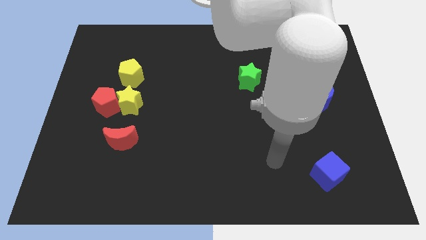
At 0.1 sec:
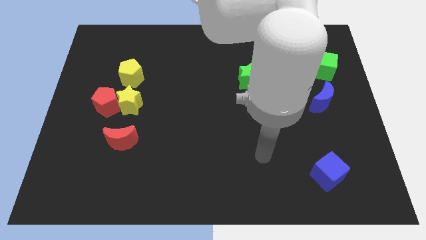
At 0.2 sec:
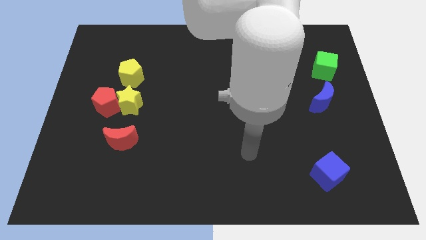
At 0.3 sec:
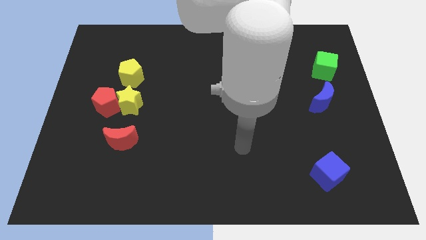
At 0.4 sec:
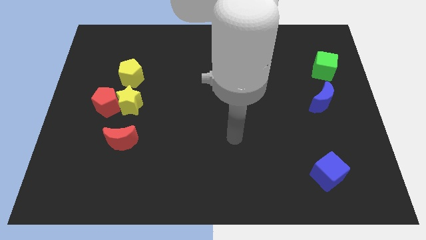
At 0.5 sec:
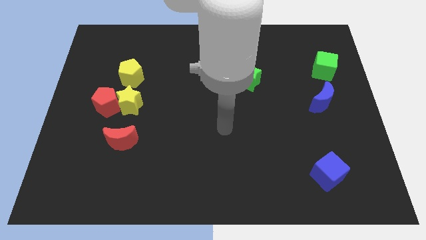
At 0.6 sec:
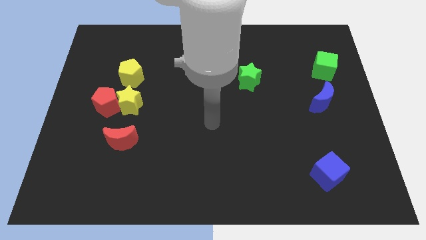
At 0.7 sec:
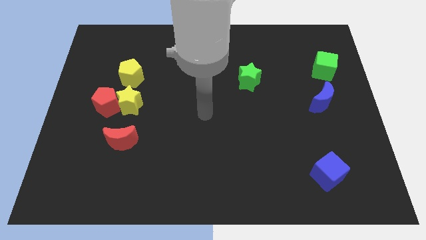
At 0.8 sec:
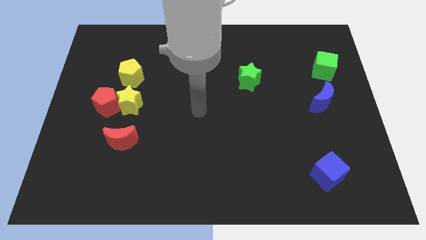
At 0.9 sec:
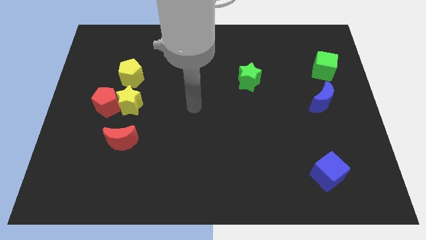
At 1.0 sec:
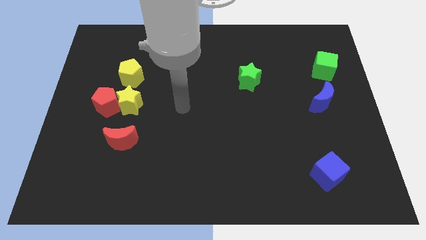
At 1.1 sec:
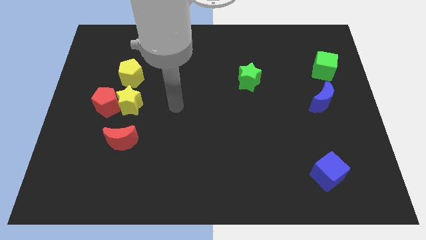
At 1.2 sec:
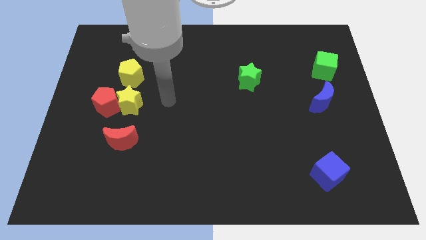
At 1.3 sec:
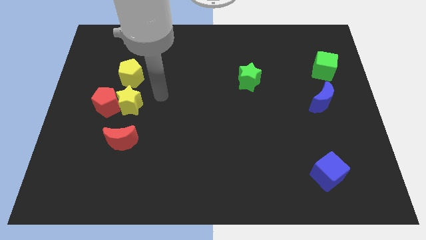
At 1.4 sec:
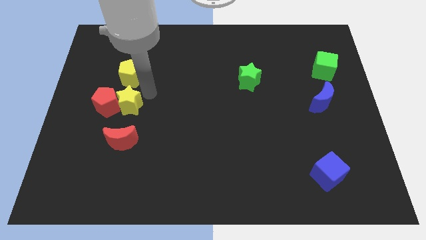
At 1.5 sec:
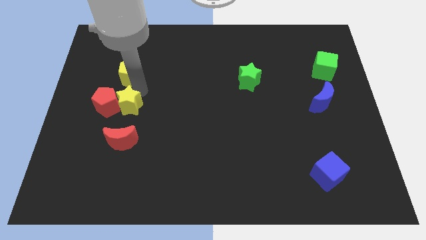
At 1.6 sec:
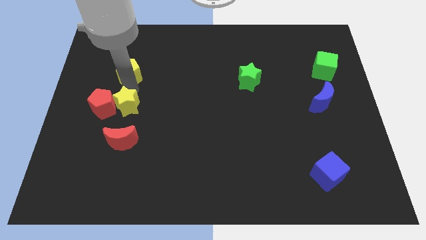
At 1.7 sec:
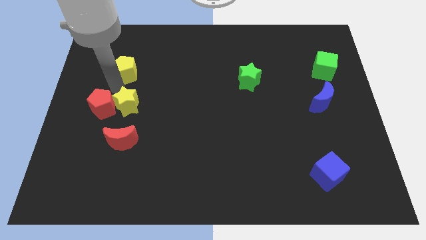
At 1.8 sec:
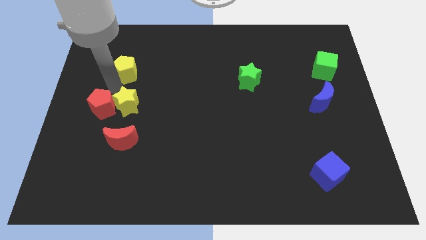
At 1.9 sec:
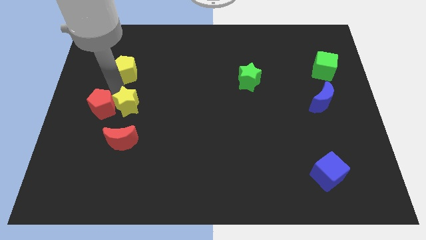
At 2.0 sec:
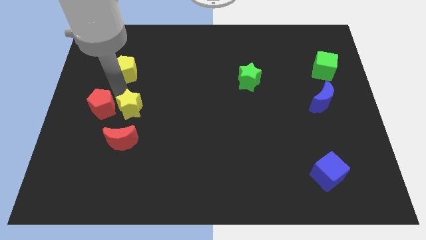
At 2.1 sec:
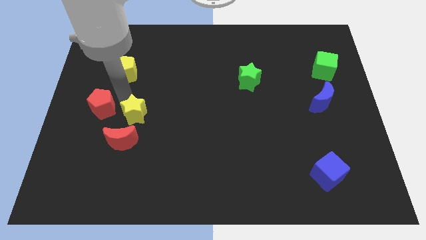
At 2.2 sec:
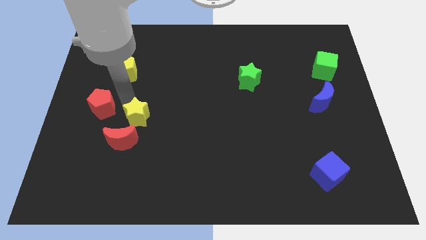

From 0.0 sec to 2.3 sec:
separate the yellow star from the red pentagon and yellow pentagon

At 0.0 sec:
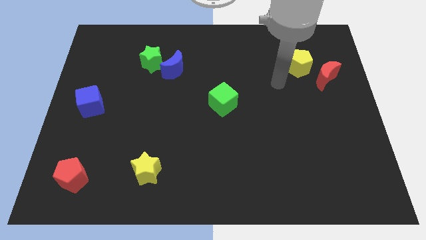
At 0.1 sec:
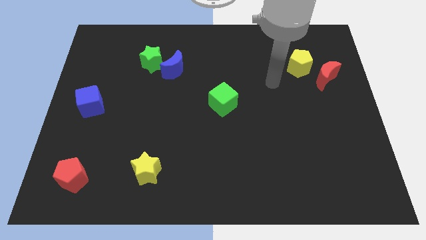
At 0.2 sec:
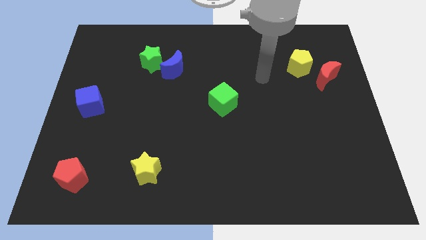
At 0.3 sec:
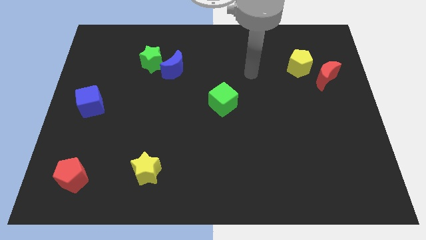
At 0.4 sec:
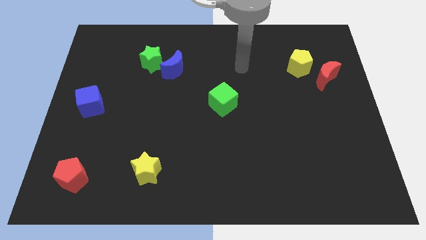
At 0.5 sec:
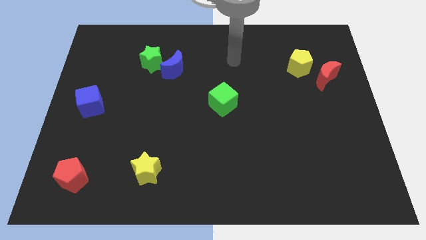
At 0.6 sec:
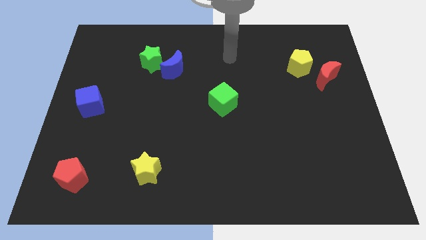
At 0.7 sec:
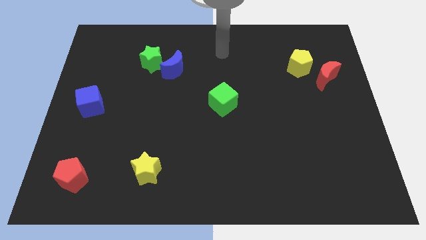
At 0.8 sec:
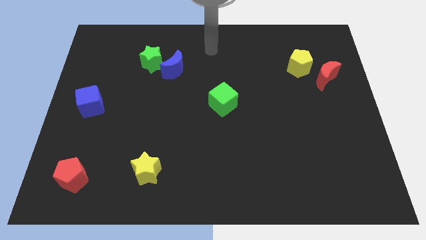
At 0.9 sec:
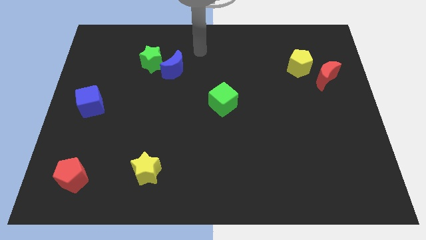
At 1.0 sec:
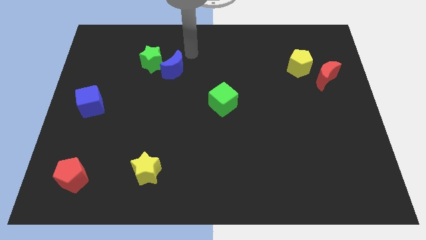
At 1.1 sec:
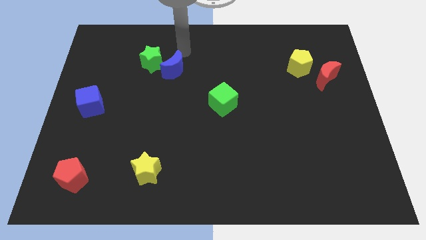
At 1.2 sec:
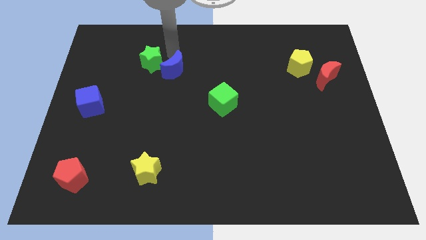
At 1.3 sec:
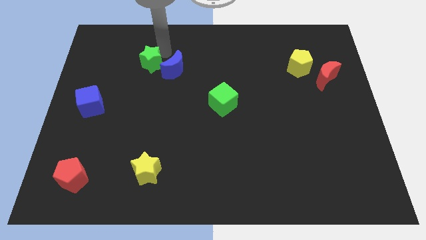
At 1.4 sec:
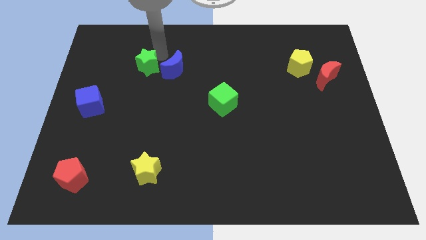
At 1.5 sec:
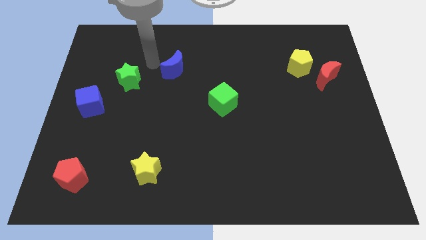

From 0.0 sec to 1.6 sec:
pull the blue moon apart from the green star

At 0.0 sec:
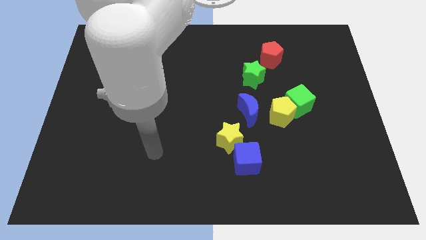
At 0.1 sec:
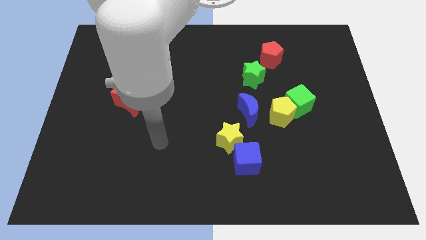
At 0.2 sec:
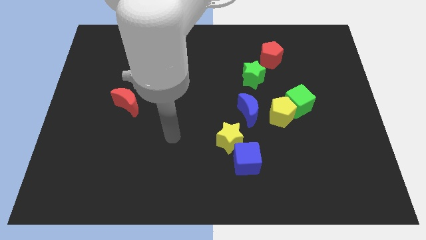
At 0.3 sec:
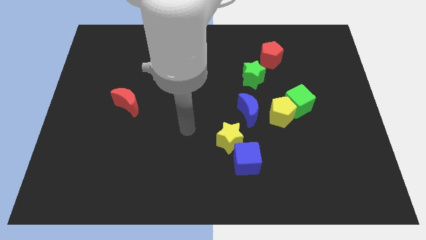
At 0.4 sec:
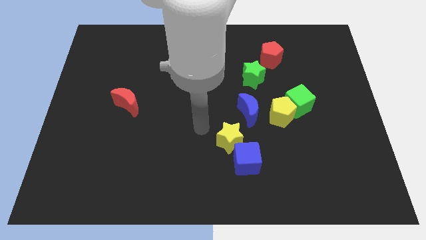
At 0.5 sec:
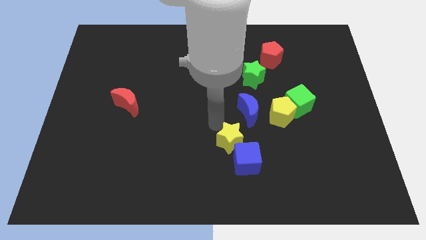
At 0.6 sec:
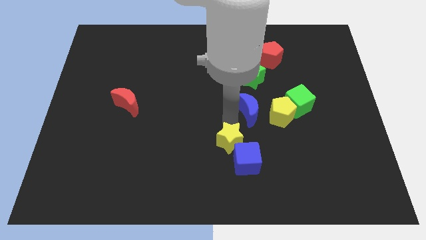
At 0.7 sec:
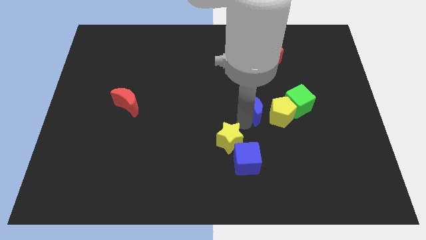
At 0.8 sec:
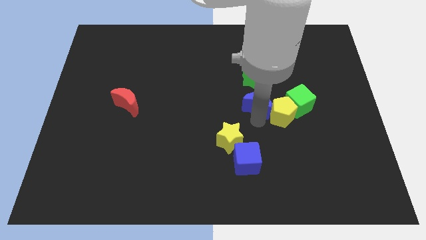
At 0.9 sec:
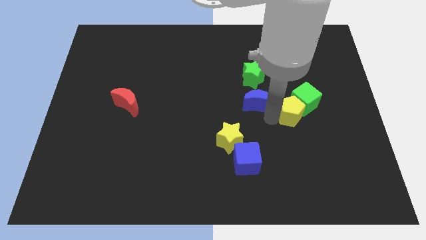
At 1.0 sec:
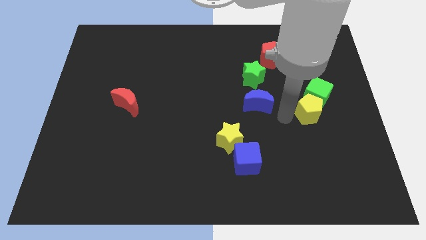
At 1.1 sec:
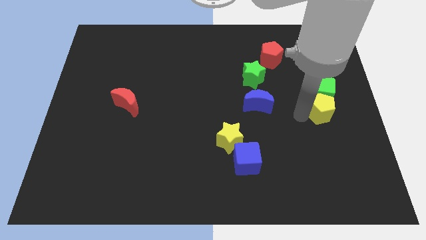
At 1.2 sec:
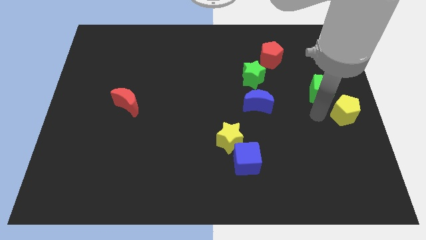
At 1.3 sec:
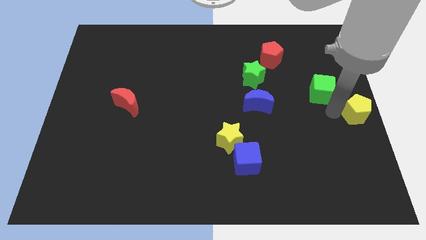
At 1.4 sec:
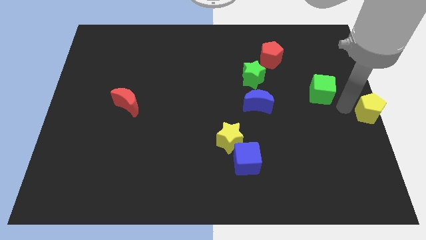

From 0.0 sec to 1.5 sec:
pull the green cube apart from the yellow pentagon

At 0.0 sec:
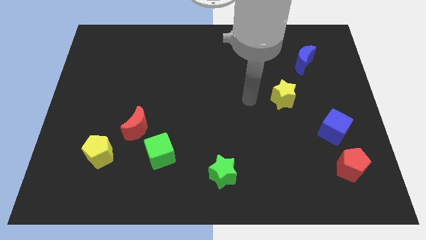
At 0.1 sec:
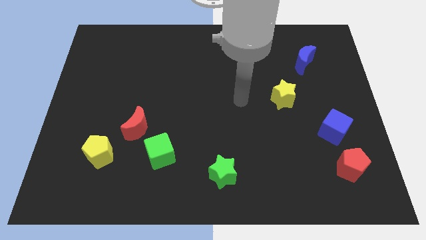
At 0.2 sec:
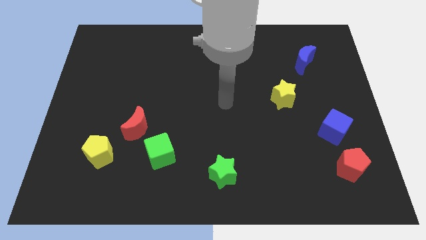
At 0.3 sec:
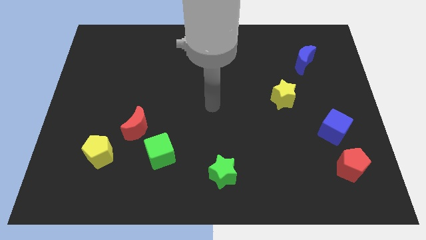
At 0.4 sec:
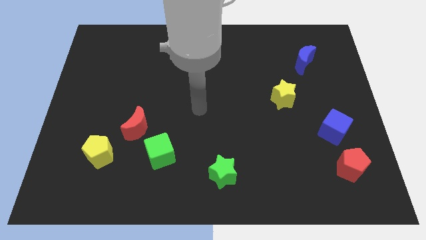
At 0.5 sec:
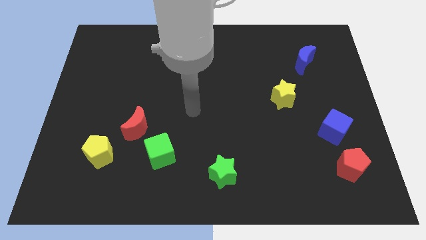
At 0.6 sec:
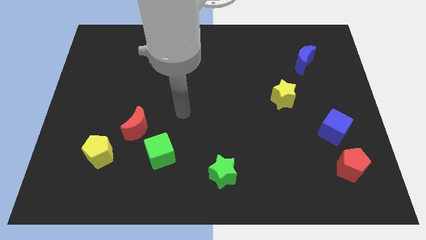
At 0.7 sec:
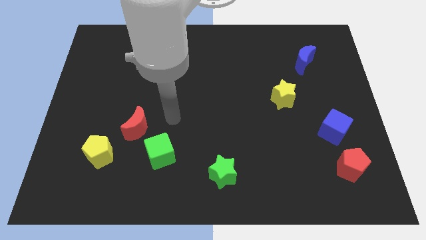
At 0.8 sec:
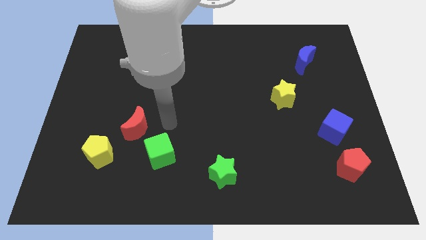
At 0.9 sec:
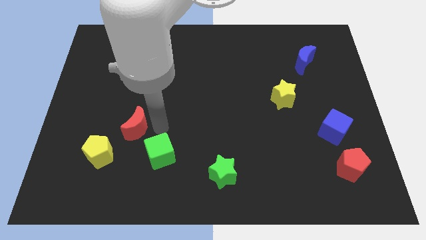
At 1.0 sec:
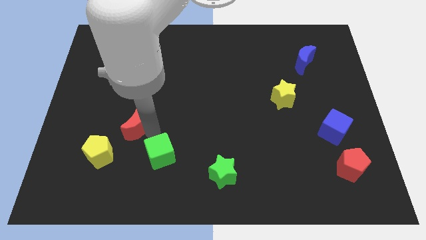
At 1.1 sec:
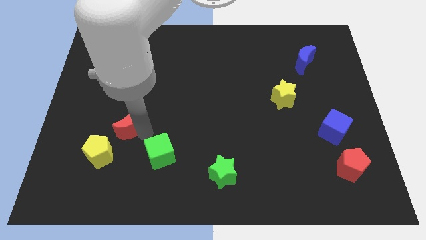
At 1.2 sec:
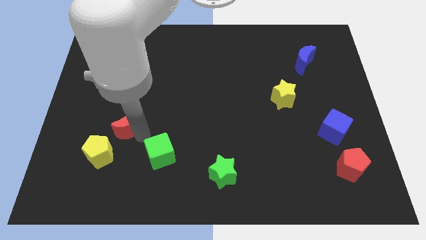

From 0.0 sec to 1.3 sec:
separate the green cube from the red moon

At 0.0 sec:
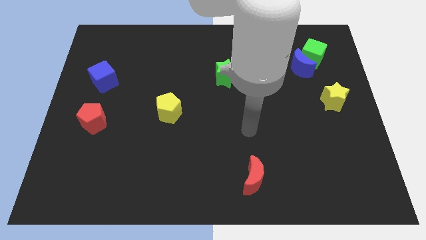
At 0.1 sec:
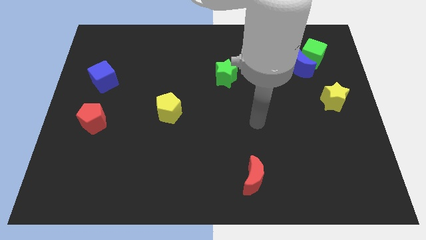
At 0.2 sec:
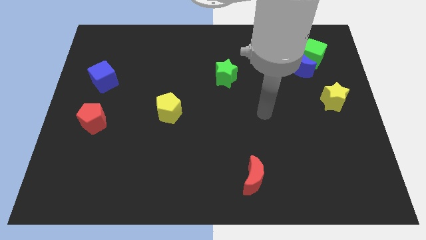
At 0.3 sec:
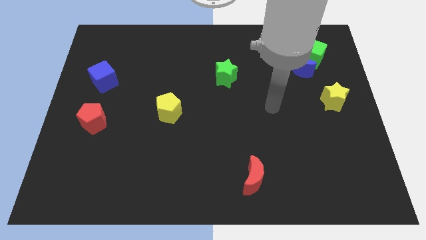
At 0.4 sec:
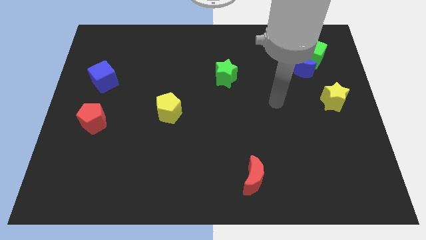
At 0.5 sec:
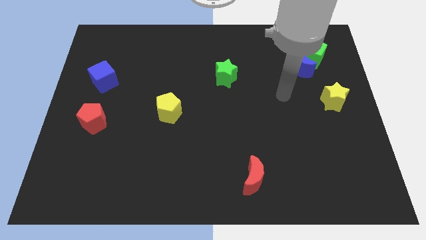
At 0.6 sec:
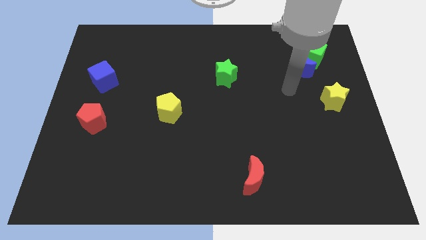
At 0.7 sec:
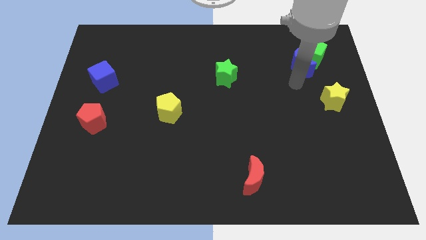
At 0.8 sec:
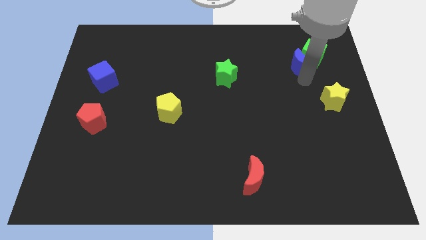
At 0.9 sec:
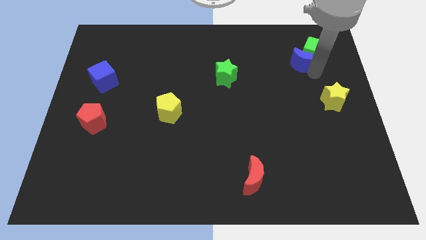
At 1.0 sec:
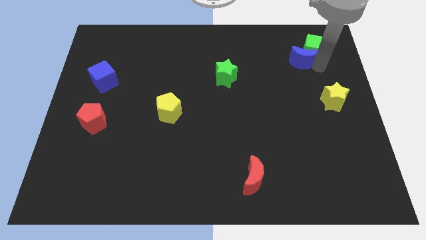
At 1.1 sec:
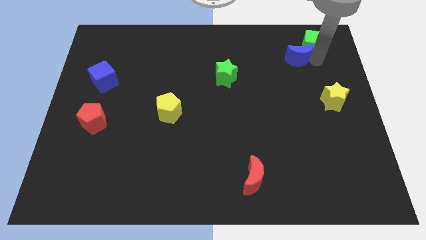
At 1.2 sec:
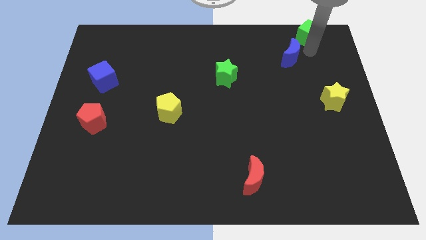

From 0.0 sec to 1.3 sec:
pull the blue moon apart from the green cube

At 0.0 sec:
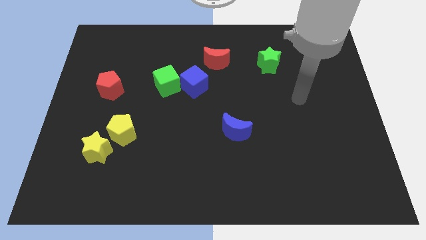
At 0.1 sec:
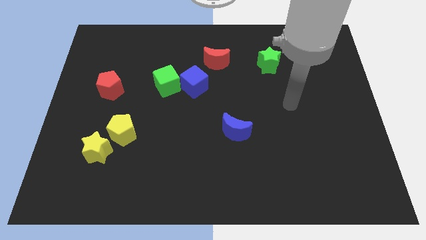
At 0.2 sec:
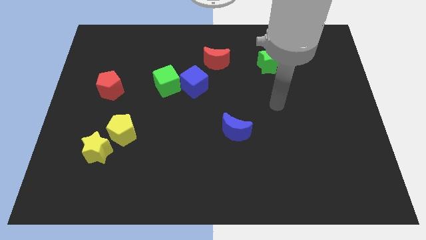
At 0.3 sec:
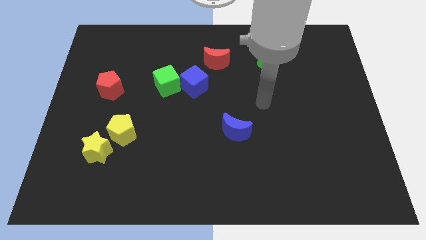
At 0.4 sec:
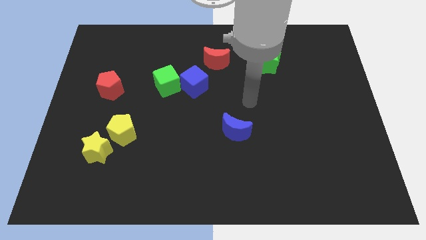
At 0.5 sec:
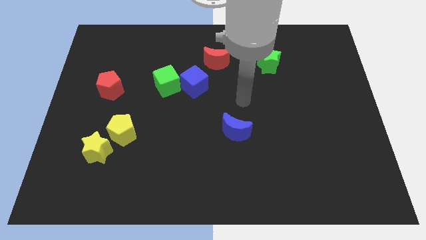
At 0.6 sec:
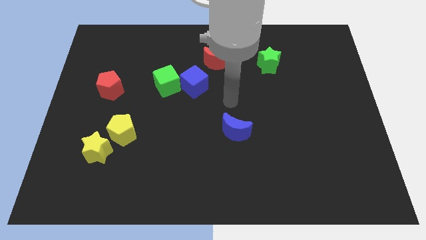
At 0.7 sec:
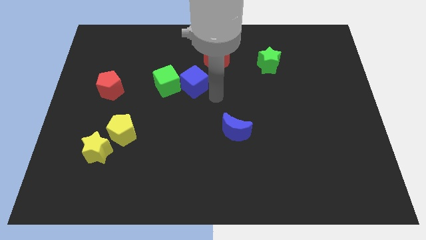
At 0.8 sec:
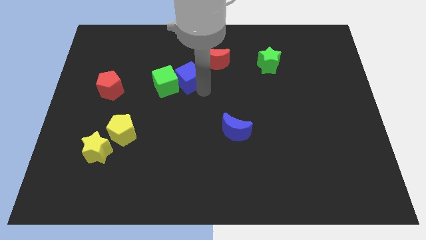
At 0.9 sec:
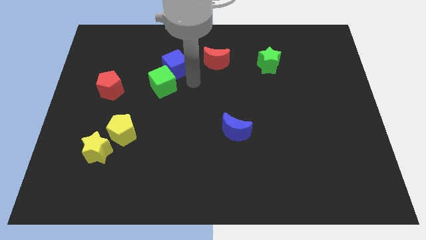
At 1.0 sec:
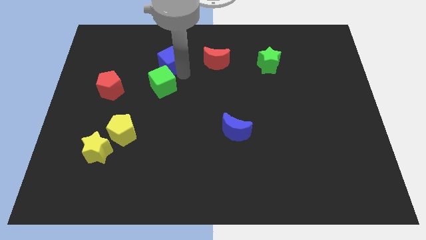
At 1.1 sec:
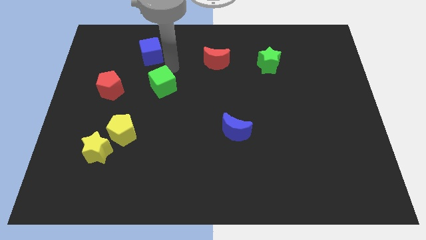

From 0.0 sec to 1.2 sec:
separate the green cube from the blue cube
